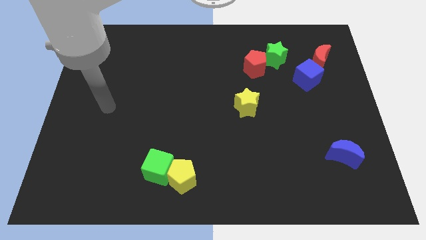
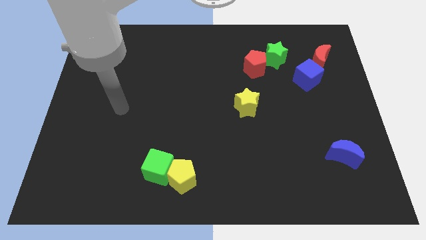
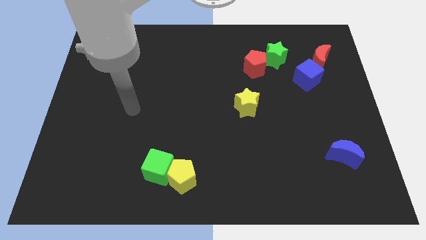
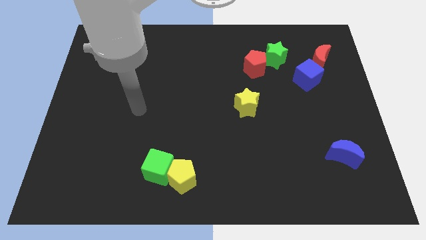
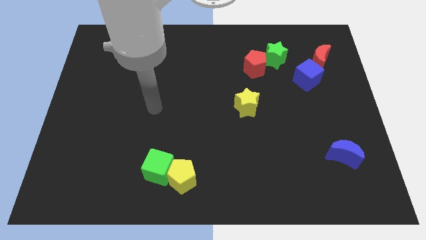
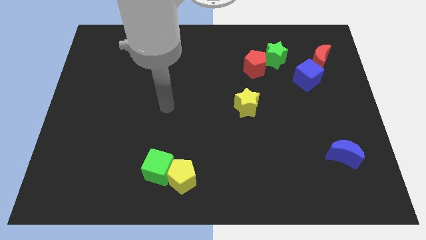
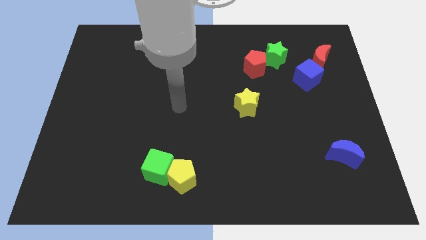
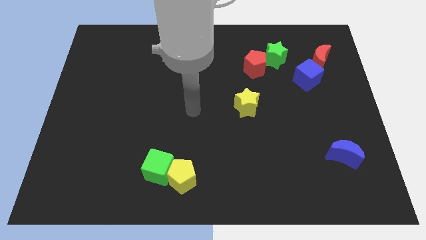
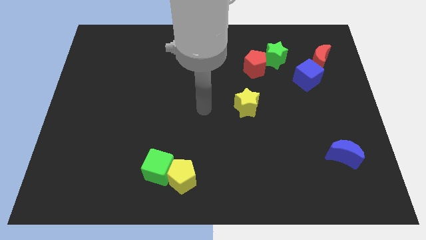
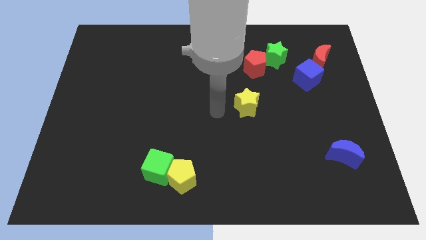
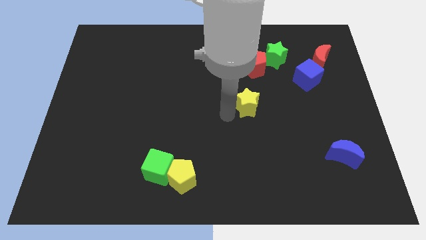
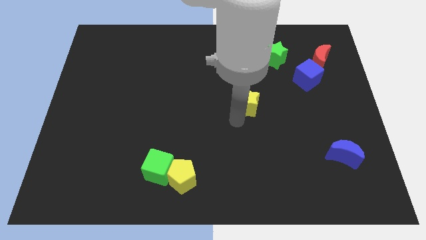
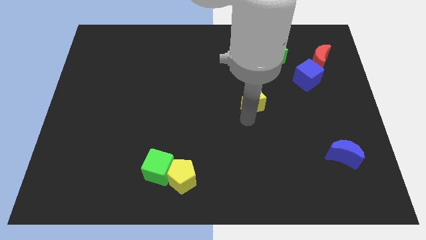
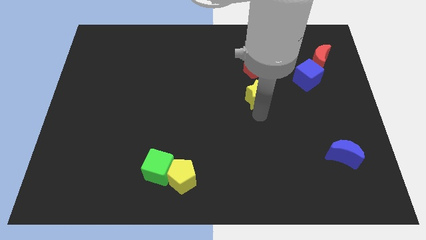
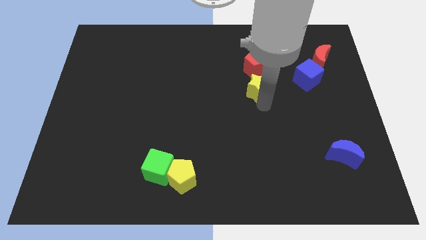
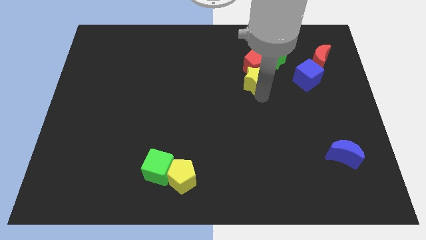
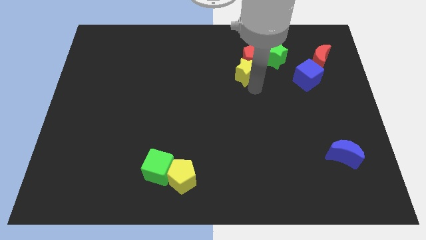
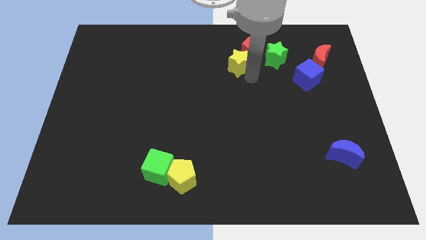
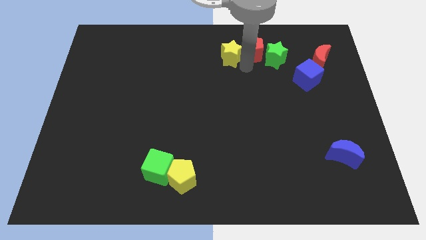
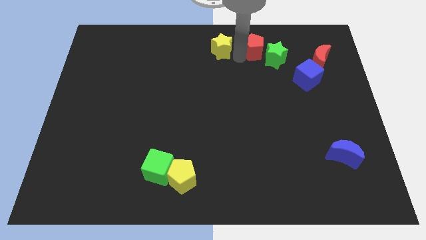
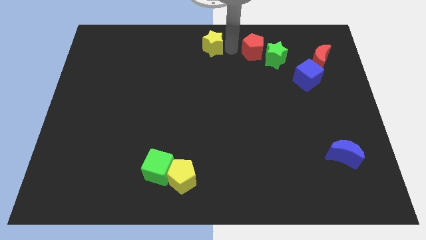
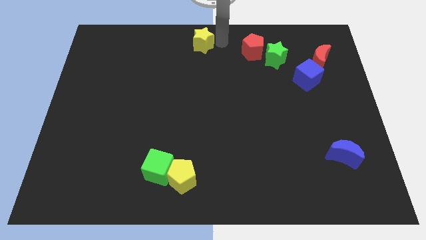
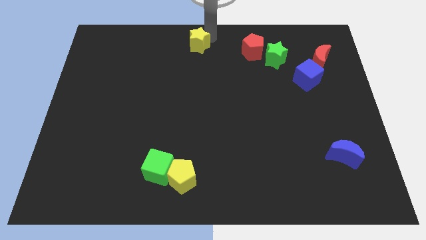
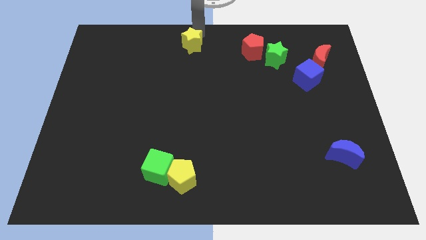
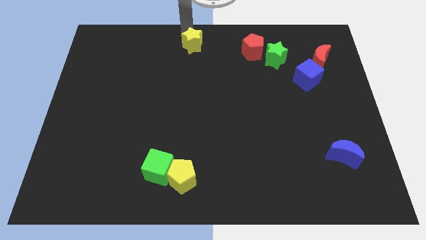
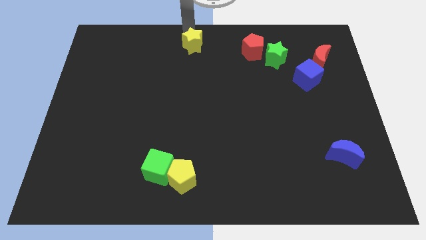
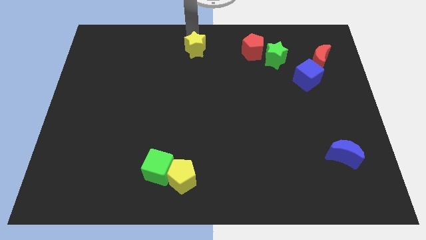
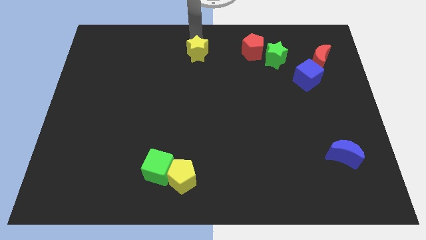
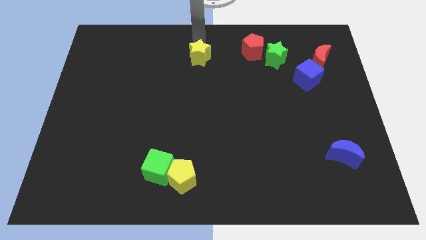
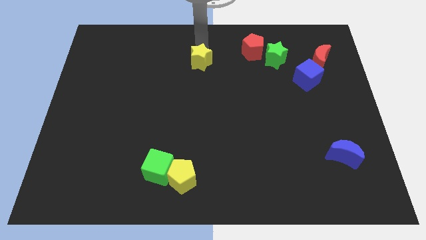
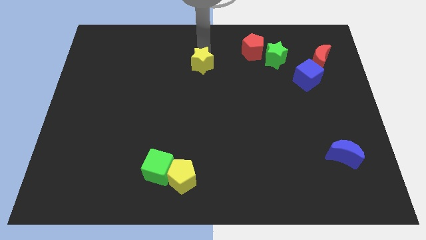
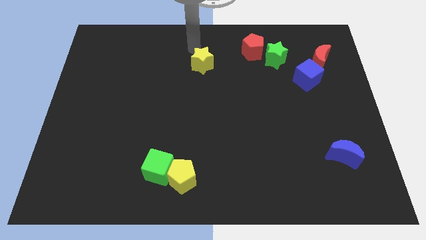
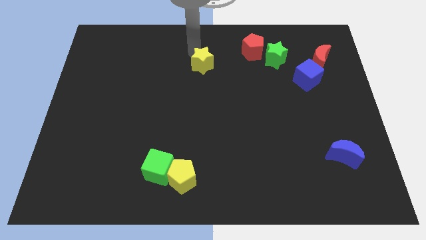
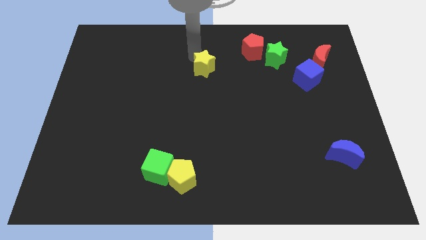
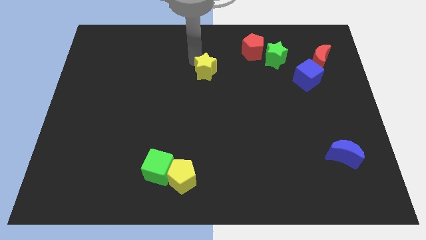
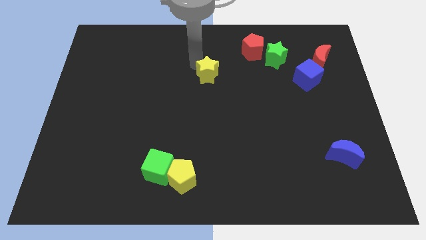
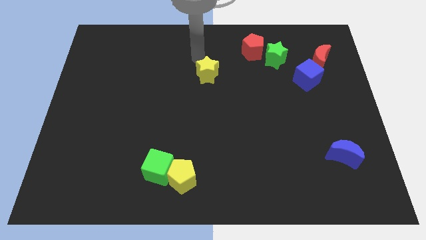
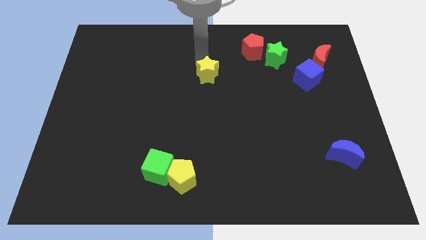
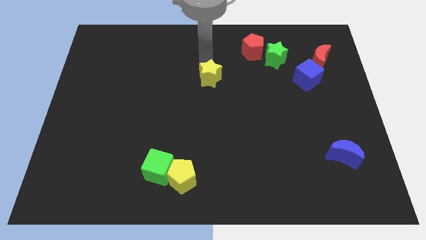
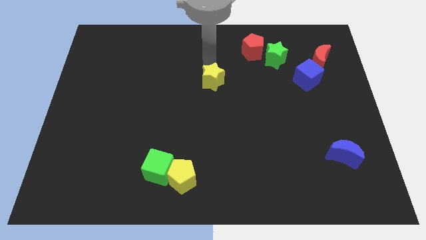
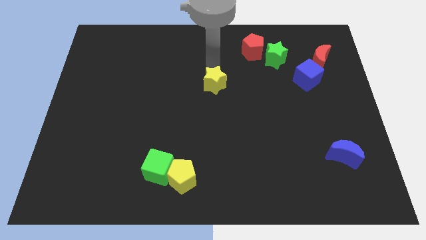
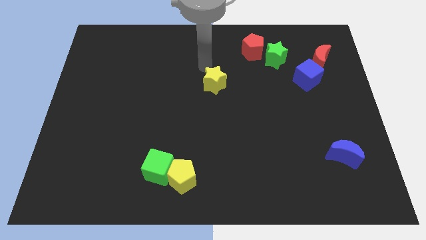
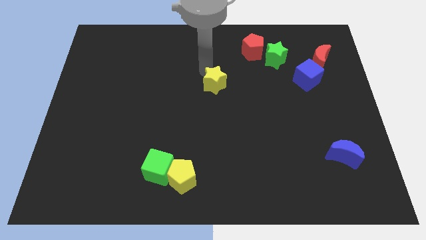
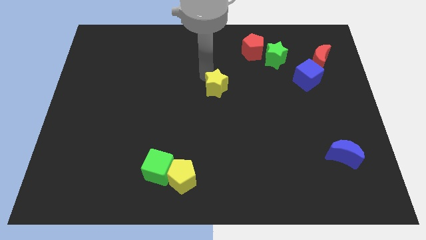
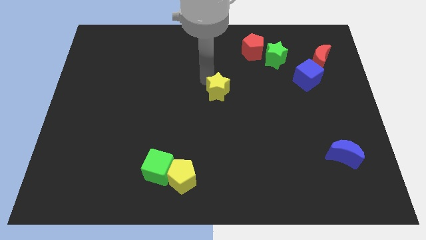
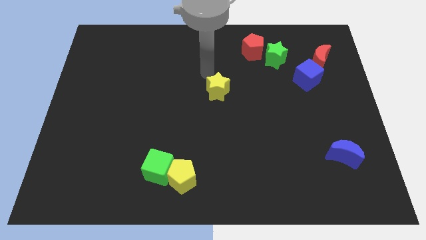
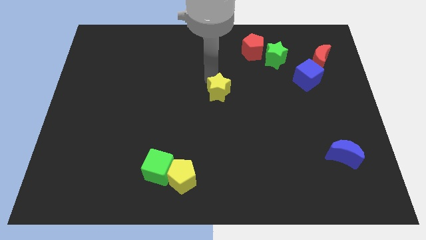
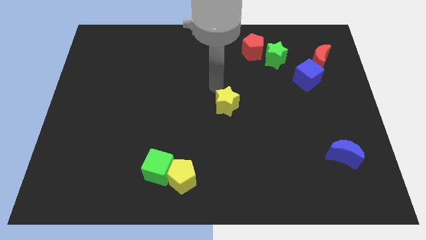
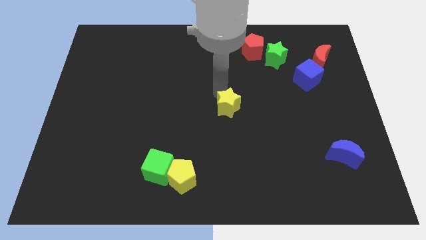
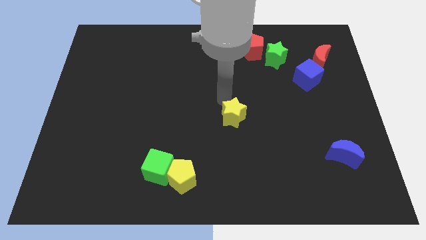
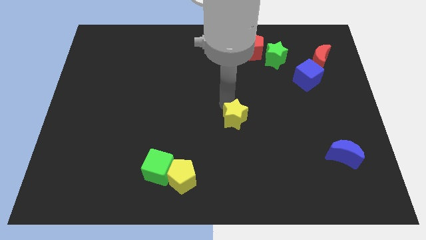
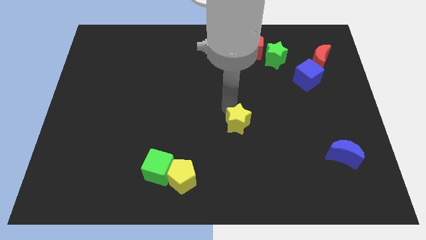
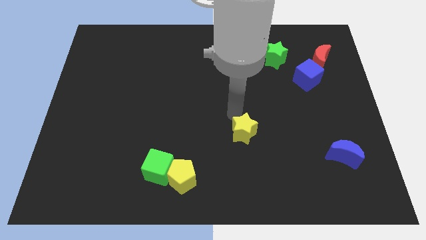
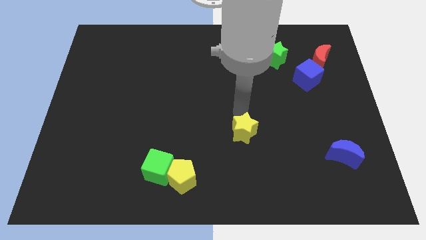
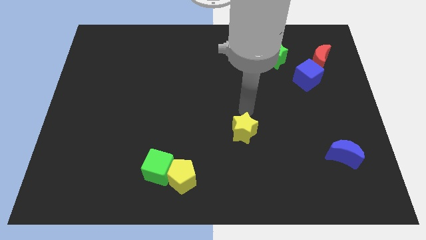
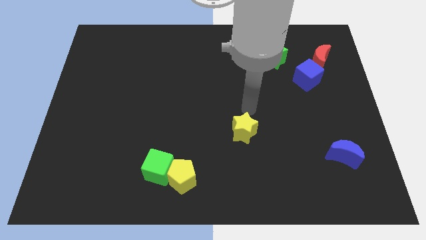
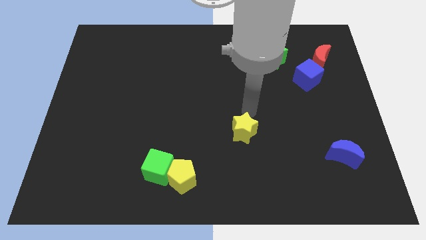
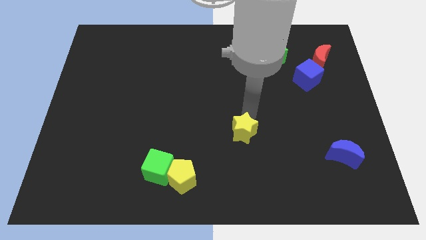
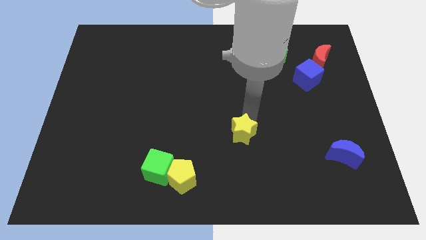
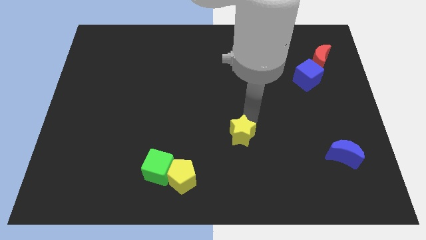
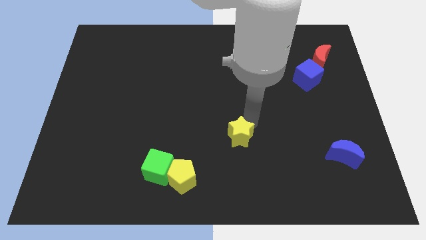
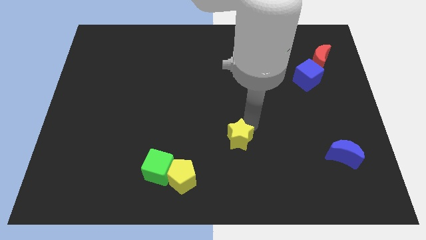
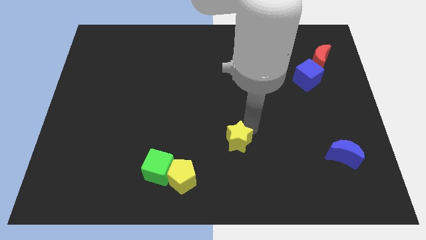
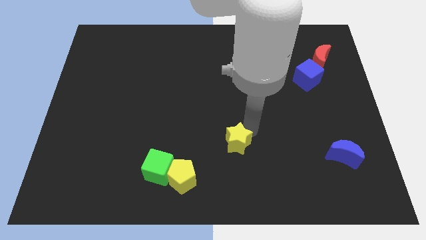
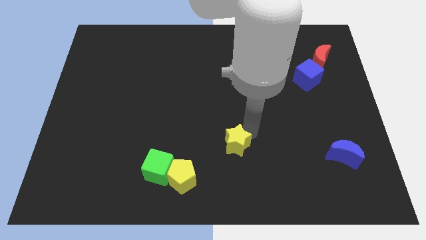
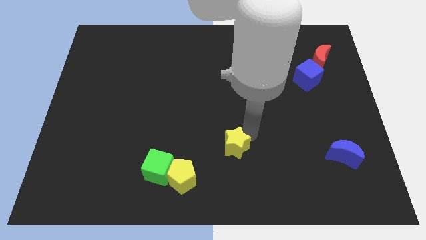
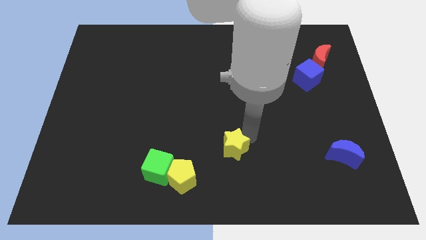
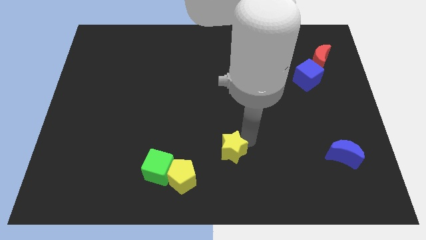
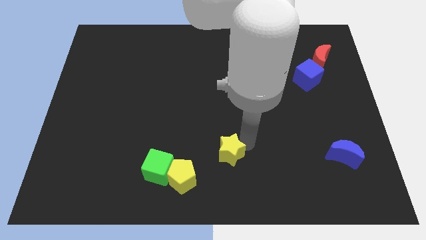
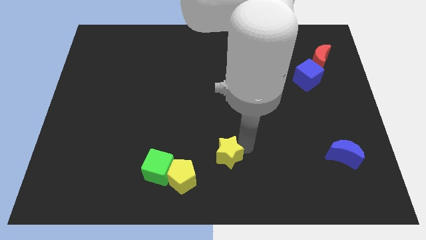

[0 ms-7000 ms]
push the yellow star to the bottom side
